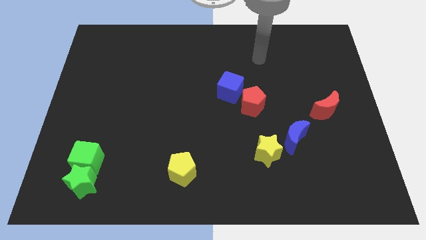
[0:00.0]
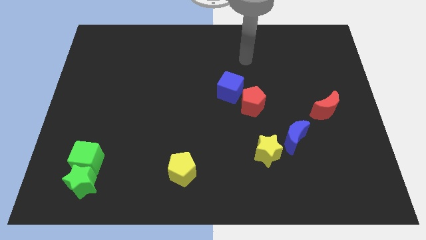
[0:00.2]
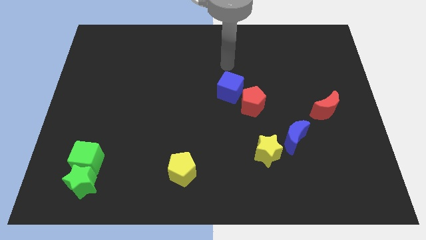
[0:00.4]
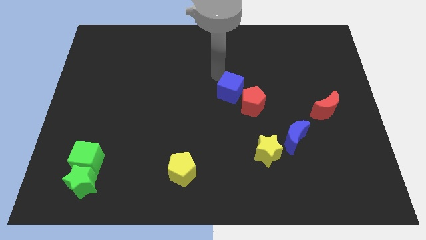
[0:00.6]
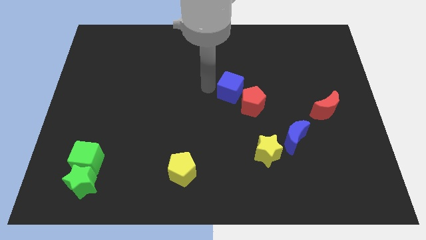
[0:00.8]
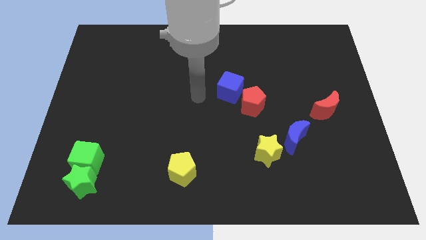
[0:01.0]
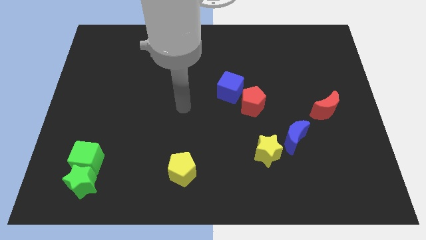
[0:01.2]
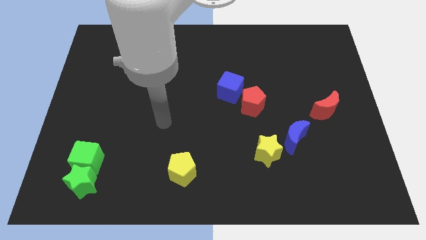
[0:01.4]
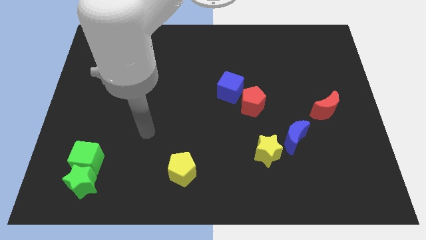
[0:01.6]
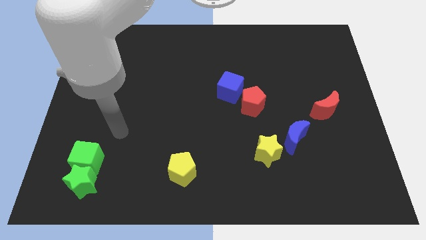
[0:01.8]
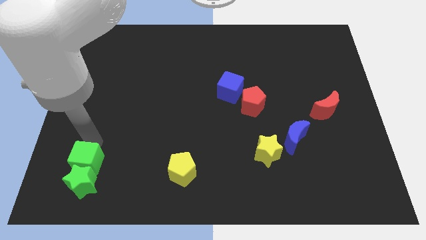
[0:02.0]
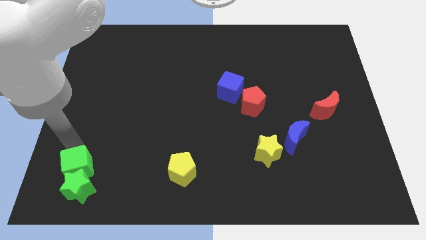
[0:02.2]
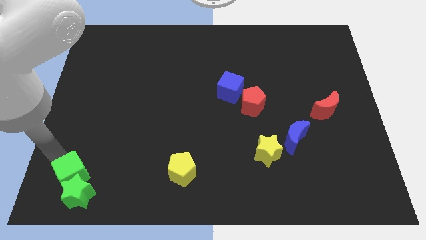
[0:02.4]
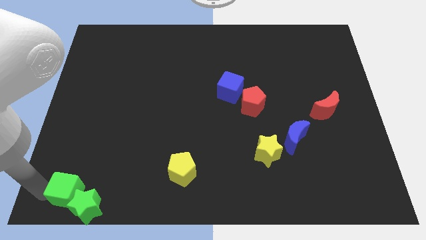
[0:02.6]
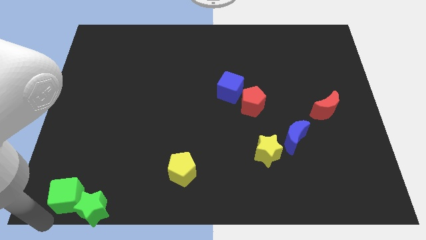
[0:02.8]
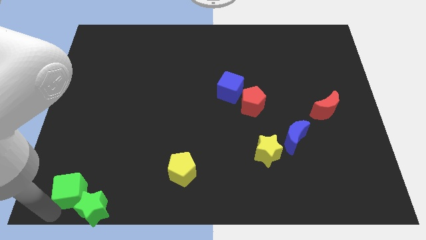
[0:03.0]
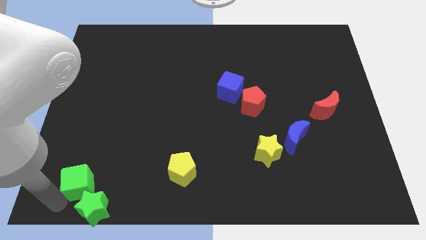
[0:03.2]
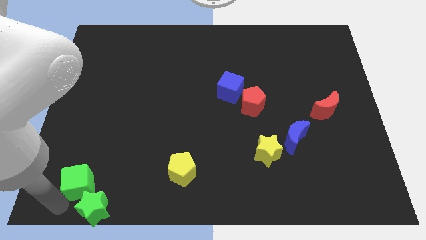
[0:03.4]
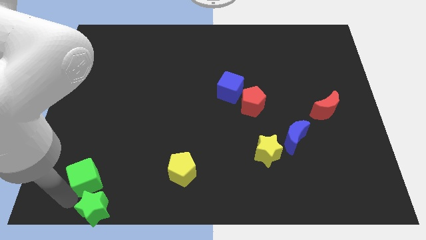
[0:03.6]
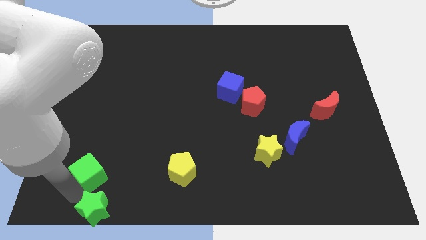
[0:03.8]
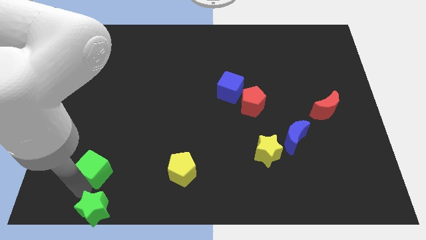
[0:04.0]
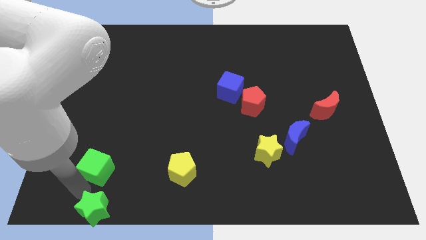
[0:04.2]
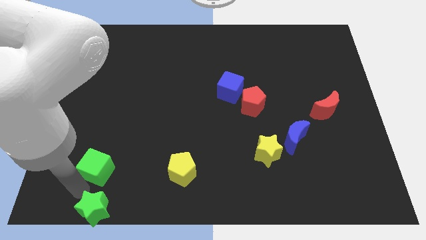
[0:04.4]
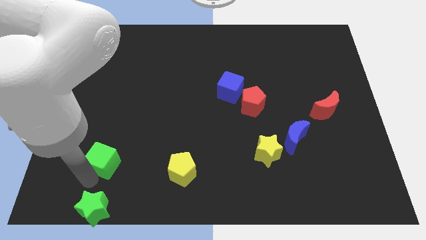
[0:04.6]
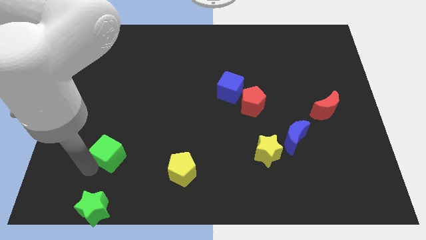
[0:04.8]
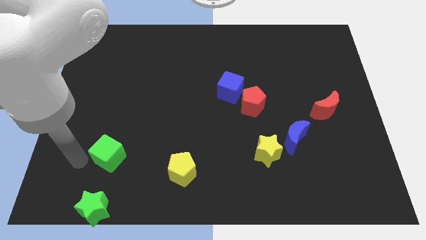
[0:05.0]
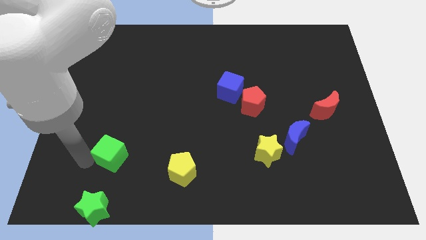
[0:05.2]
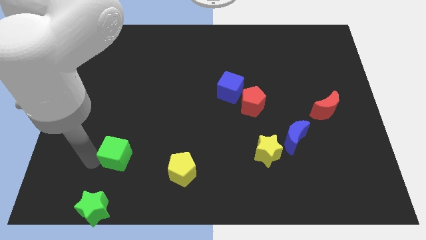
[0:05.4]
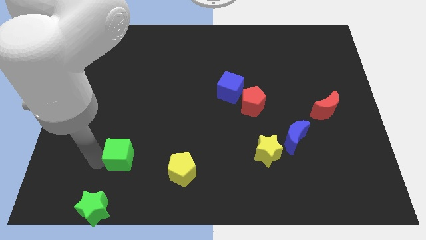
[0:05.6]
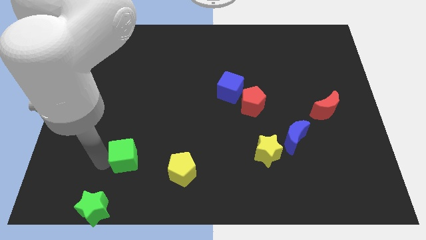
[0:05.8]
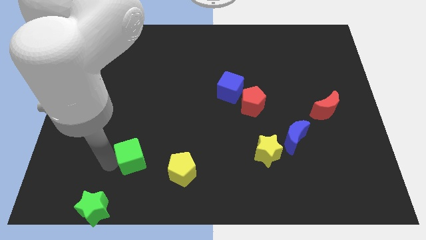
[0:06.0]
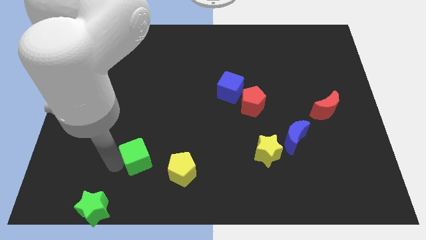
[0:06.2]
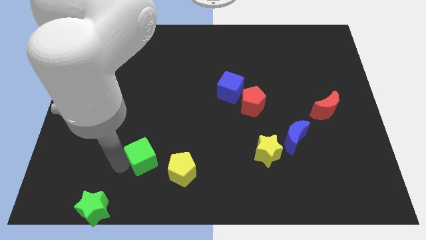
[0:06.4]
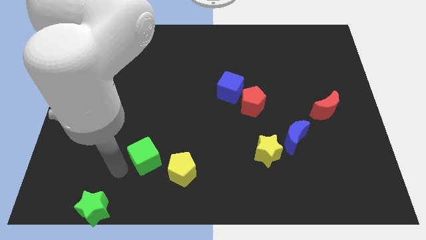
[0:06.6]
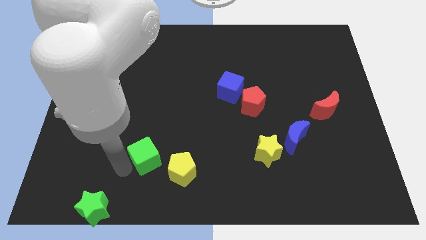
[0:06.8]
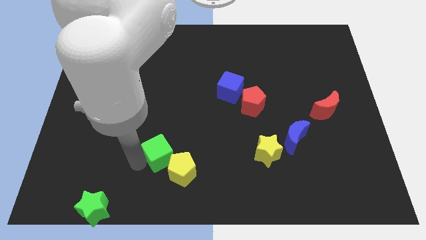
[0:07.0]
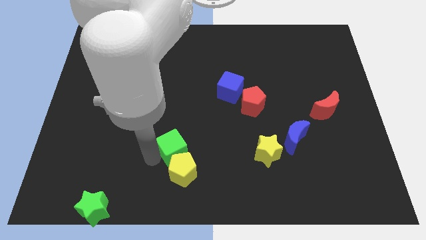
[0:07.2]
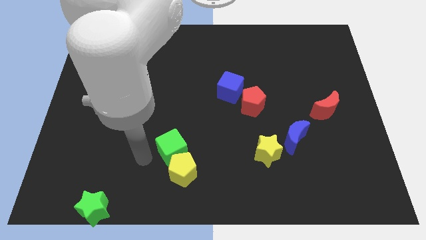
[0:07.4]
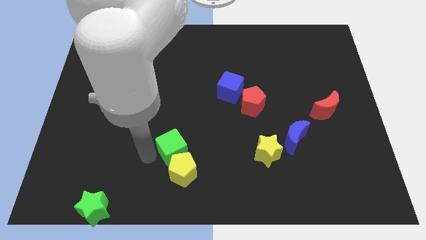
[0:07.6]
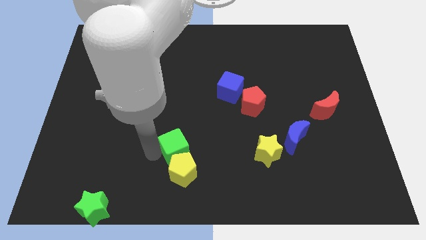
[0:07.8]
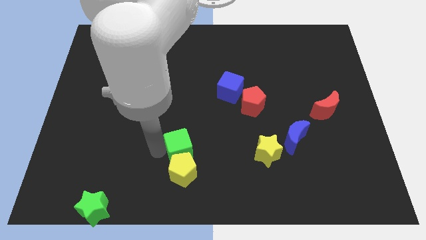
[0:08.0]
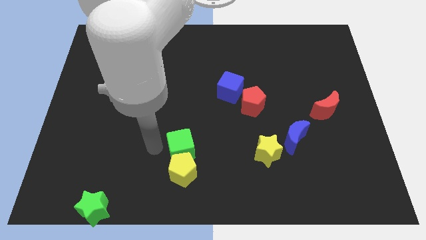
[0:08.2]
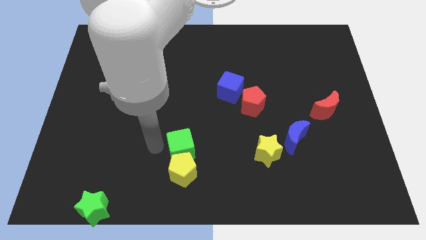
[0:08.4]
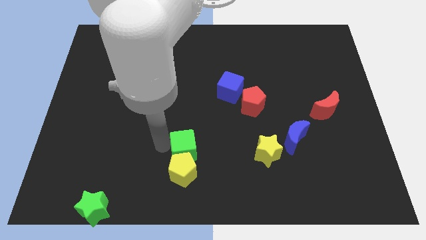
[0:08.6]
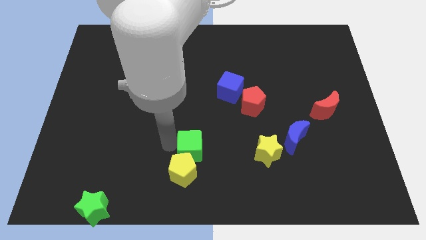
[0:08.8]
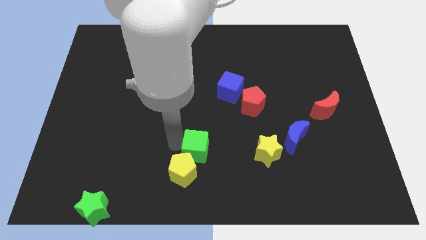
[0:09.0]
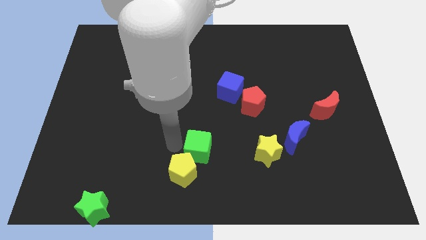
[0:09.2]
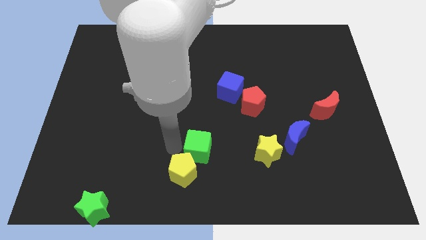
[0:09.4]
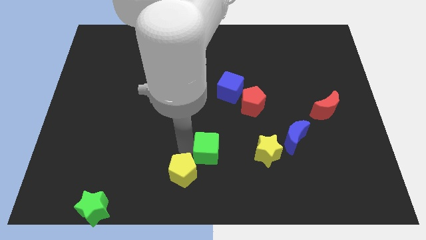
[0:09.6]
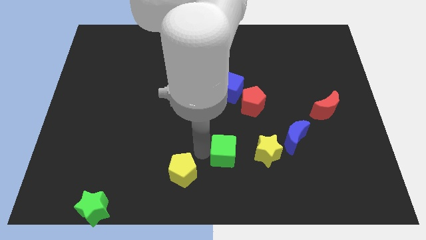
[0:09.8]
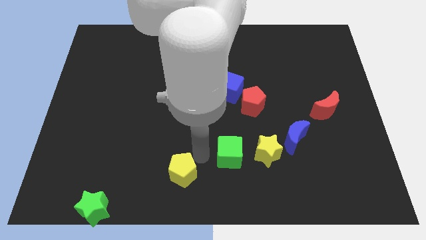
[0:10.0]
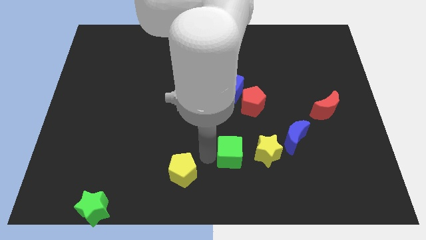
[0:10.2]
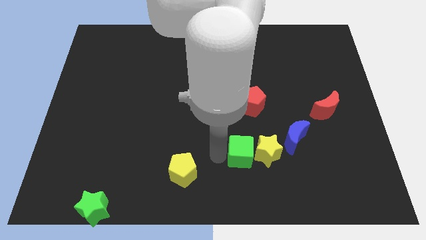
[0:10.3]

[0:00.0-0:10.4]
slide the green cube to the yellow star

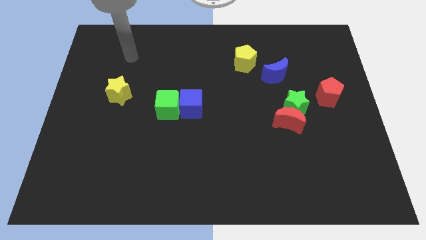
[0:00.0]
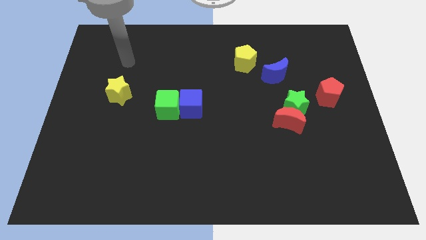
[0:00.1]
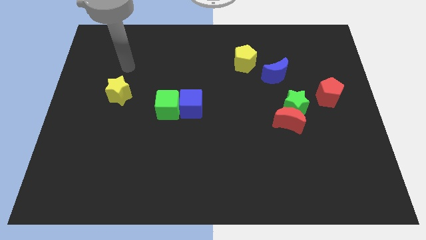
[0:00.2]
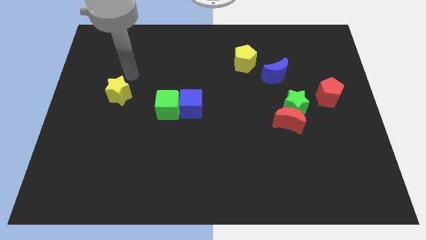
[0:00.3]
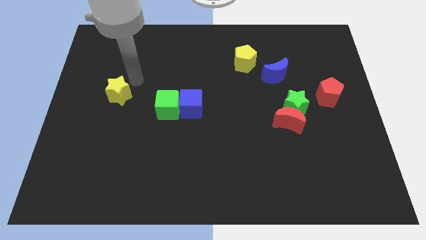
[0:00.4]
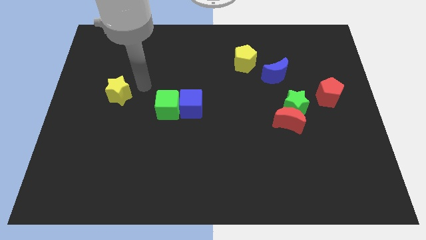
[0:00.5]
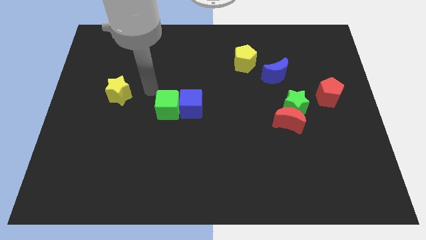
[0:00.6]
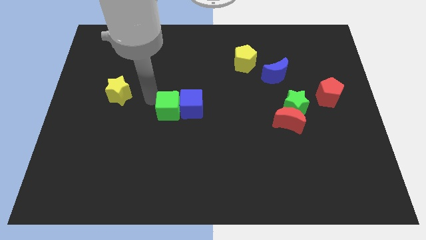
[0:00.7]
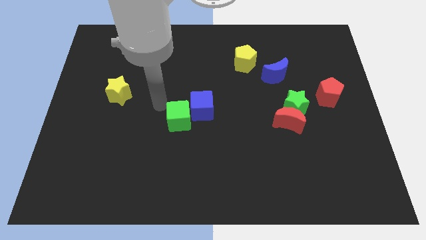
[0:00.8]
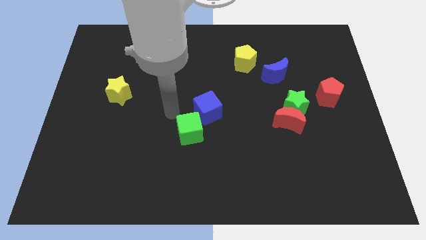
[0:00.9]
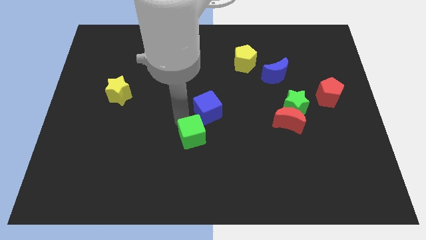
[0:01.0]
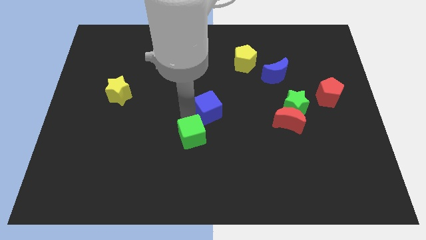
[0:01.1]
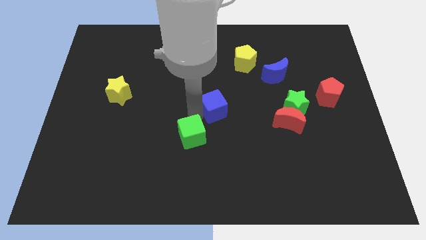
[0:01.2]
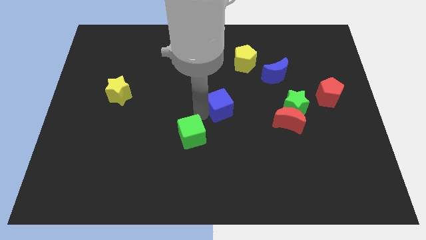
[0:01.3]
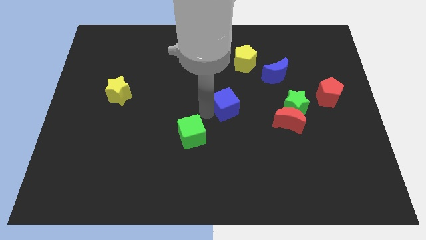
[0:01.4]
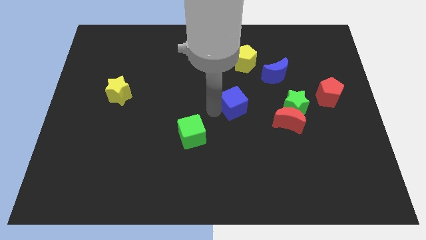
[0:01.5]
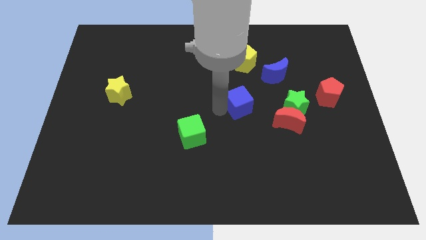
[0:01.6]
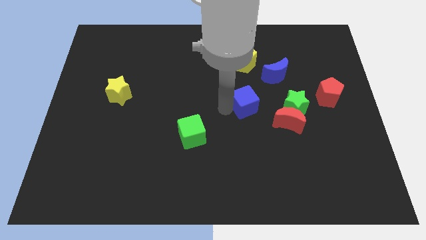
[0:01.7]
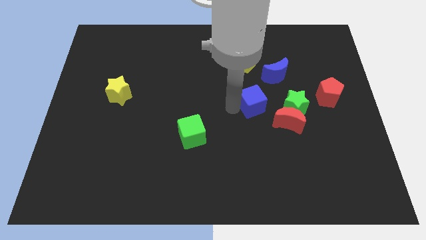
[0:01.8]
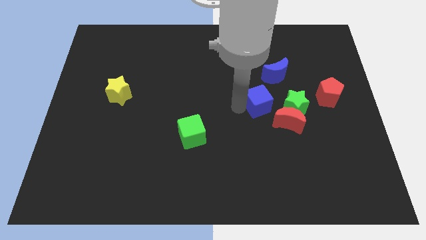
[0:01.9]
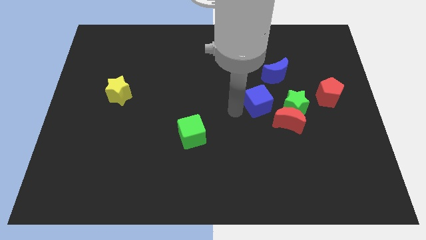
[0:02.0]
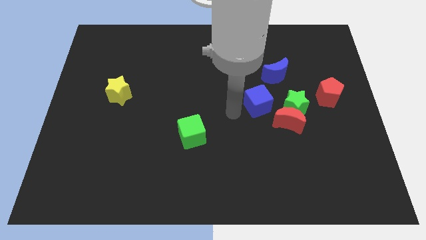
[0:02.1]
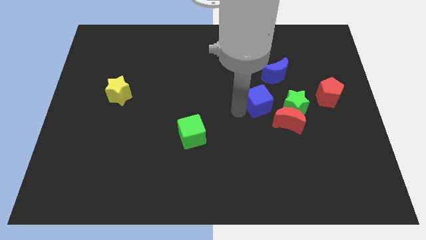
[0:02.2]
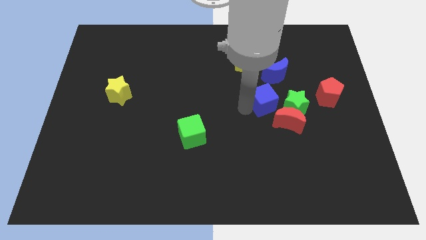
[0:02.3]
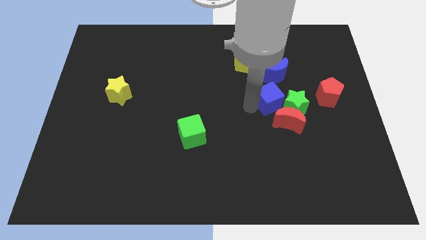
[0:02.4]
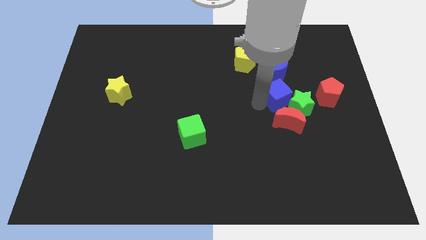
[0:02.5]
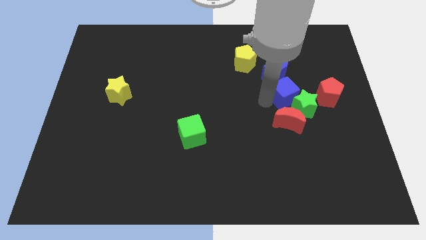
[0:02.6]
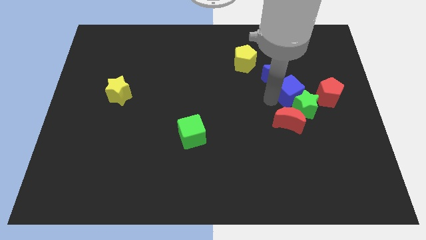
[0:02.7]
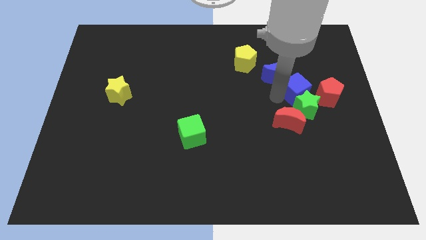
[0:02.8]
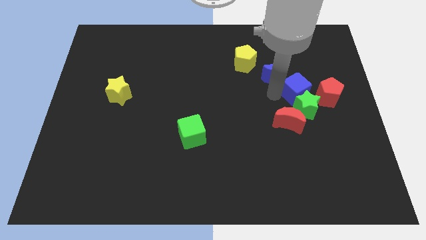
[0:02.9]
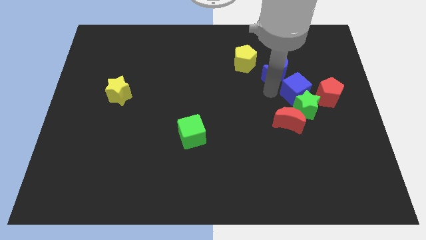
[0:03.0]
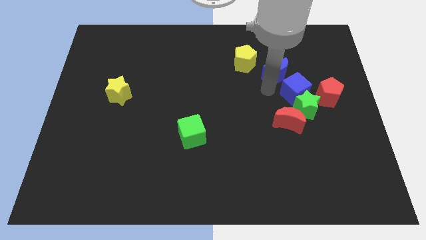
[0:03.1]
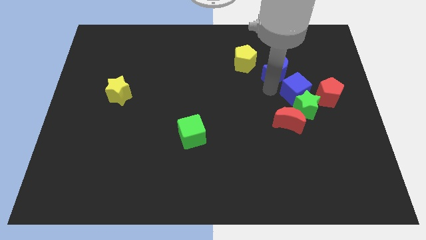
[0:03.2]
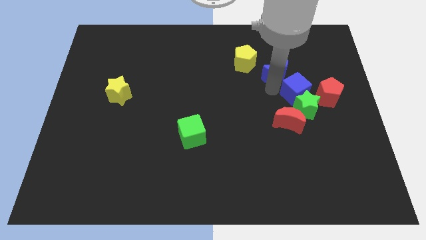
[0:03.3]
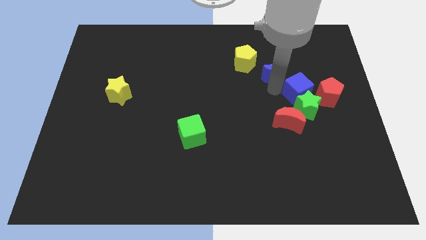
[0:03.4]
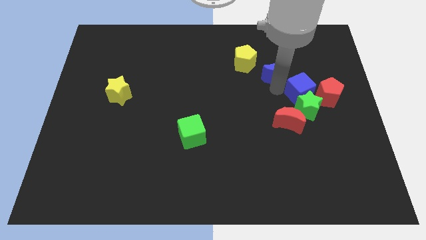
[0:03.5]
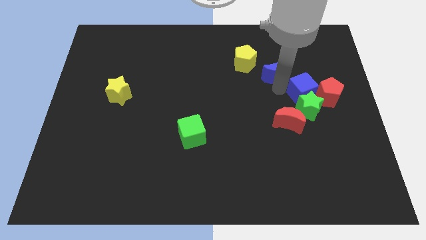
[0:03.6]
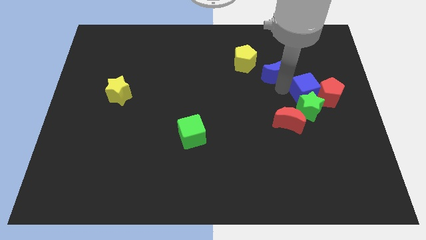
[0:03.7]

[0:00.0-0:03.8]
push the blue cube towards the red pentagon
